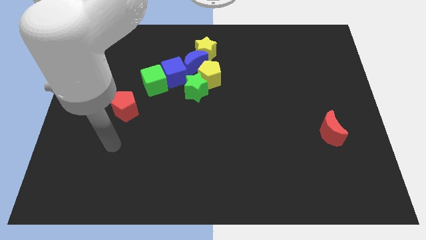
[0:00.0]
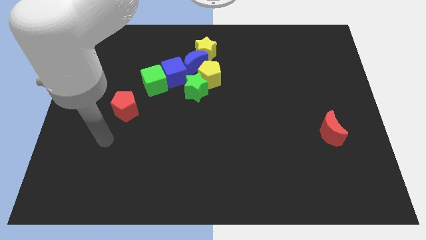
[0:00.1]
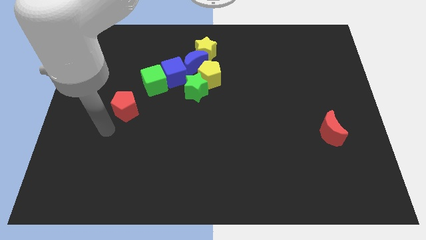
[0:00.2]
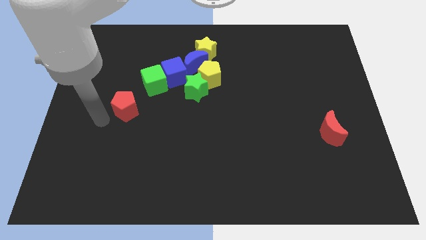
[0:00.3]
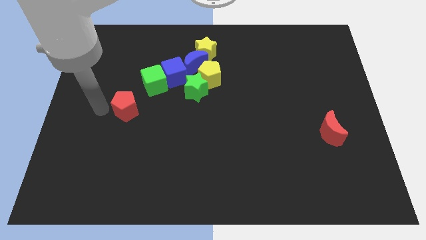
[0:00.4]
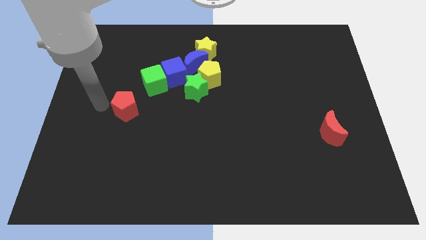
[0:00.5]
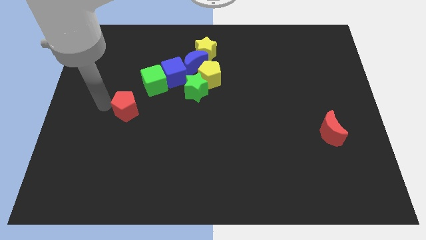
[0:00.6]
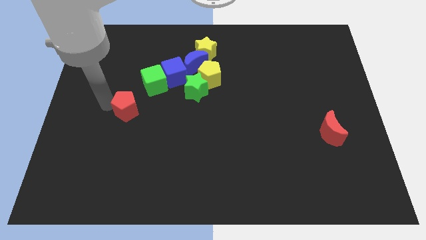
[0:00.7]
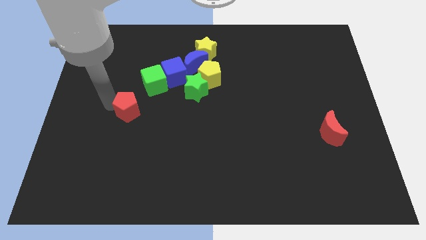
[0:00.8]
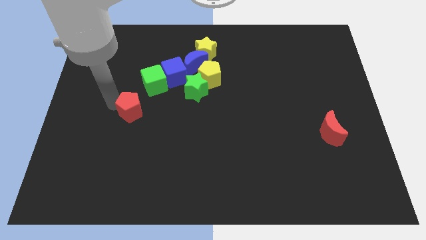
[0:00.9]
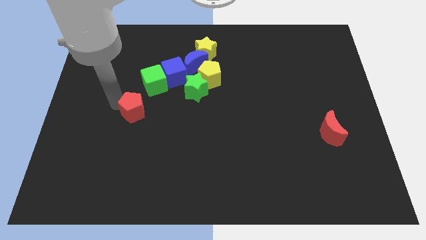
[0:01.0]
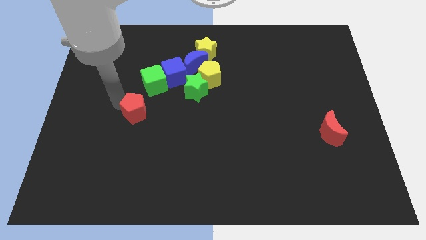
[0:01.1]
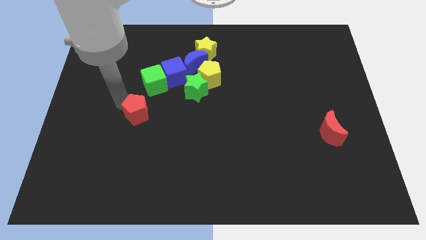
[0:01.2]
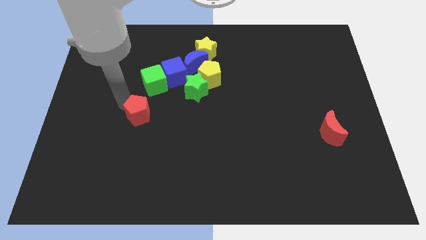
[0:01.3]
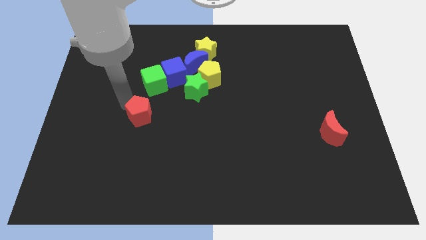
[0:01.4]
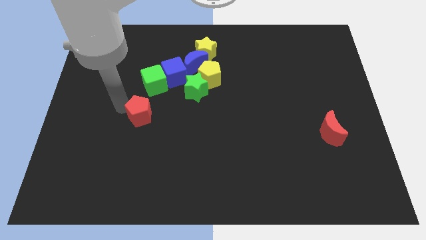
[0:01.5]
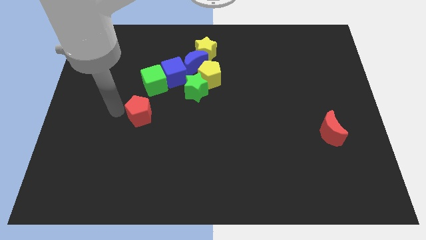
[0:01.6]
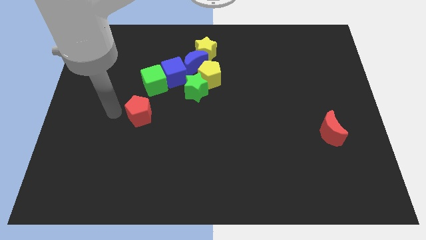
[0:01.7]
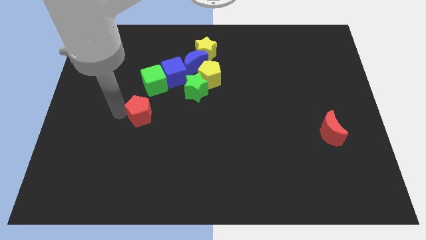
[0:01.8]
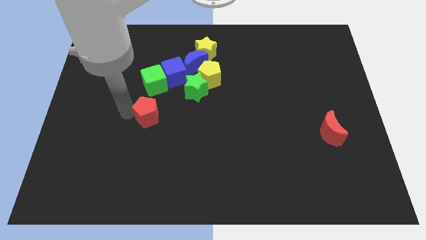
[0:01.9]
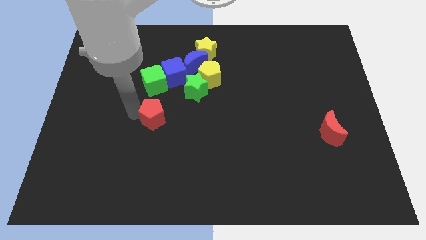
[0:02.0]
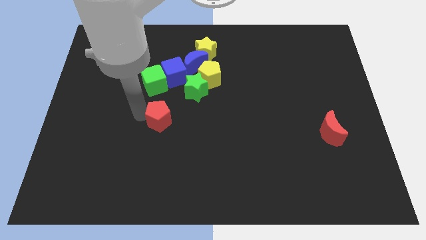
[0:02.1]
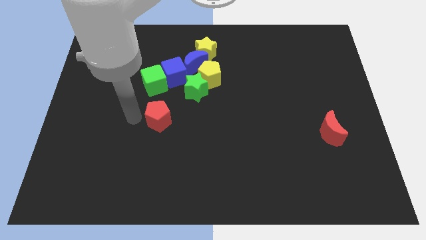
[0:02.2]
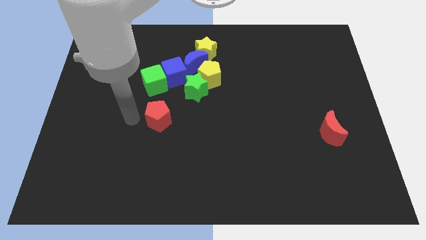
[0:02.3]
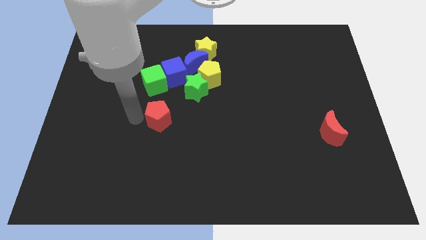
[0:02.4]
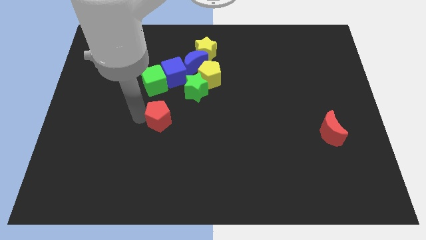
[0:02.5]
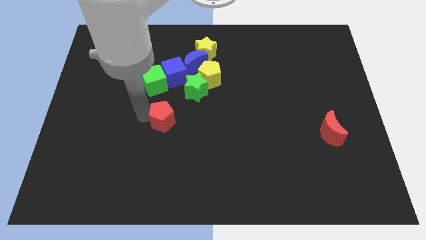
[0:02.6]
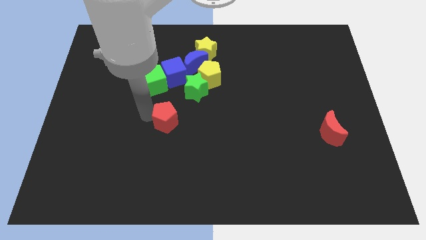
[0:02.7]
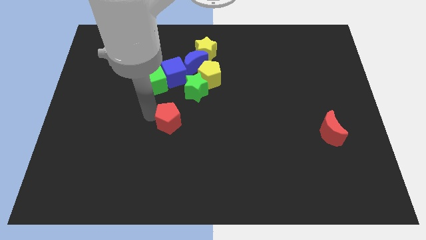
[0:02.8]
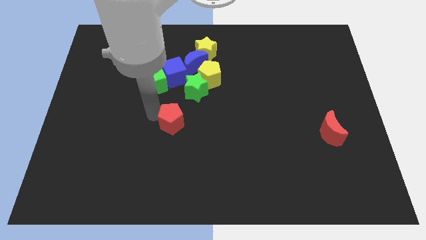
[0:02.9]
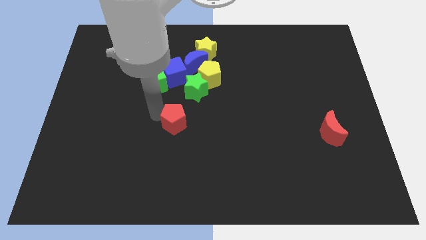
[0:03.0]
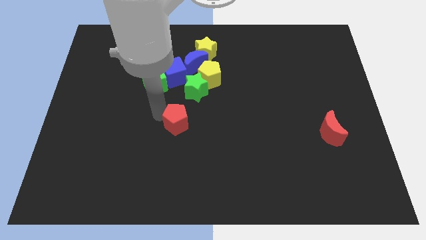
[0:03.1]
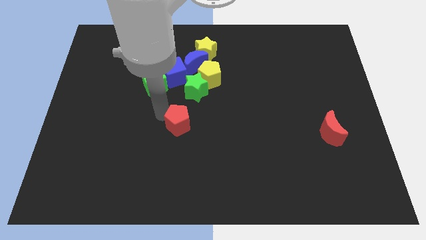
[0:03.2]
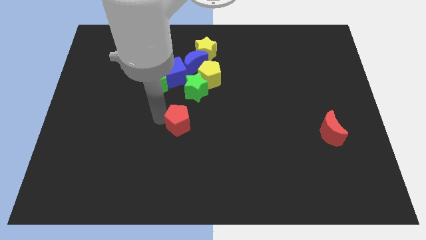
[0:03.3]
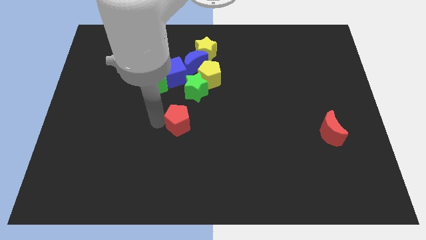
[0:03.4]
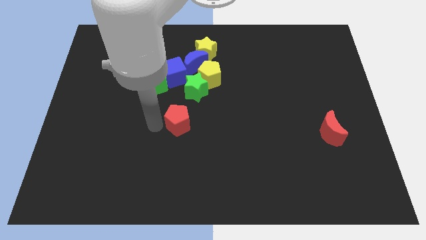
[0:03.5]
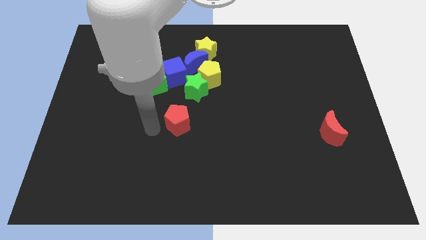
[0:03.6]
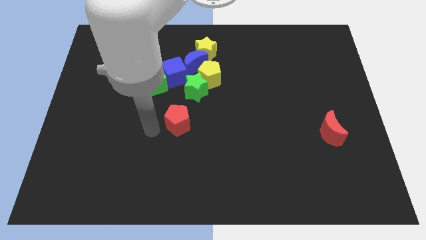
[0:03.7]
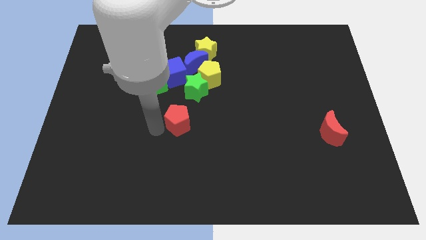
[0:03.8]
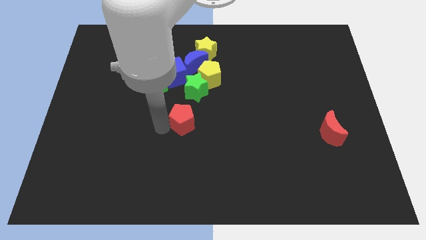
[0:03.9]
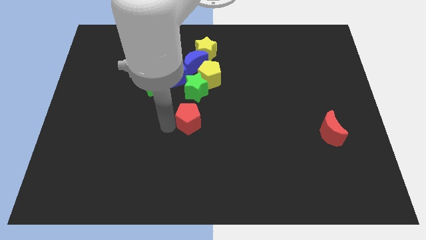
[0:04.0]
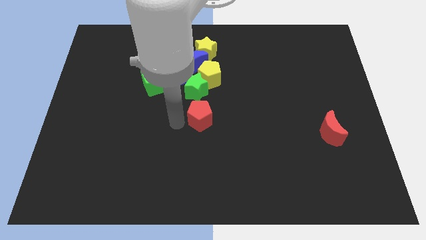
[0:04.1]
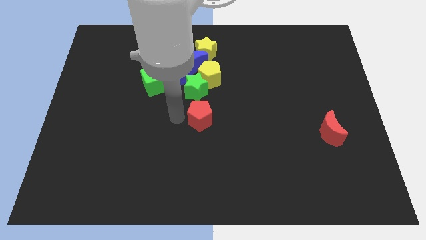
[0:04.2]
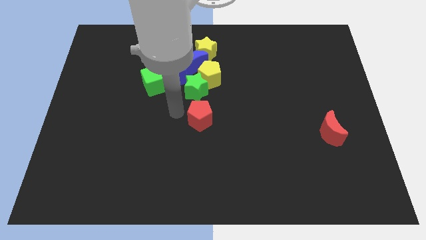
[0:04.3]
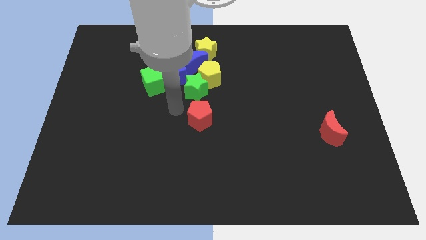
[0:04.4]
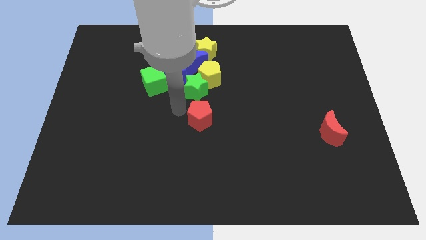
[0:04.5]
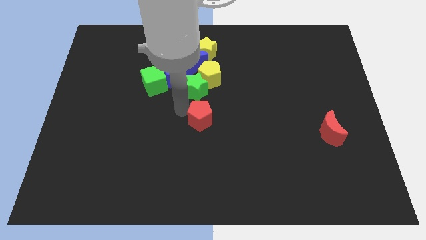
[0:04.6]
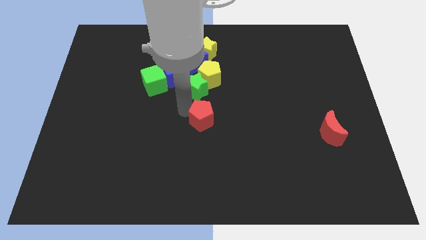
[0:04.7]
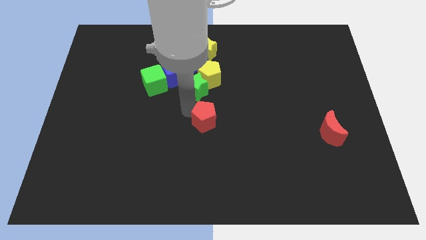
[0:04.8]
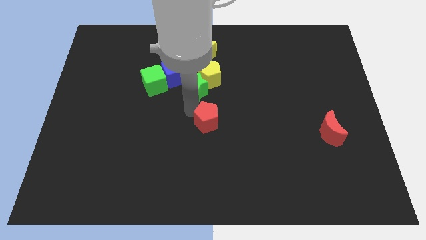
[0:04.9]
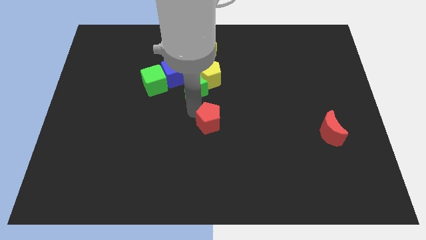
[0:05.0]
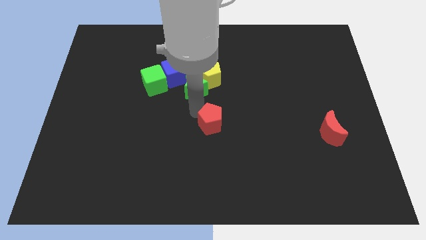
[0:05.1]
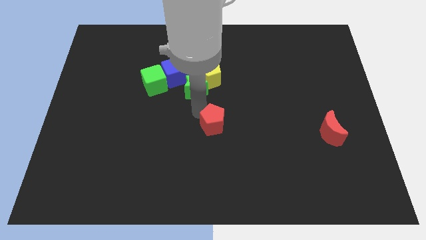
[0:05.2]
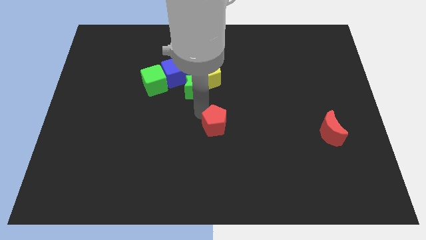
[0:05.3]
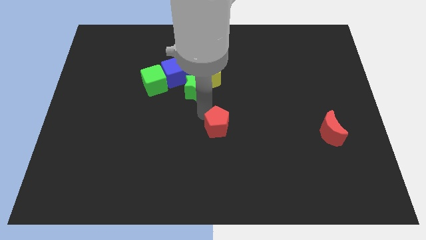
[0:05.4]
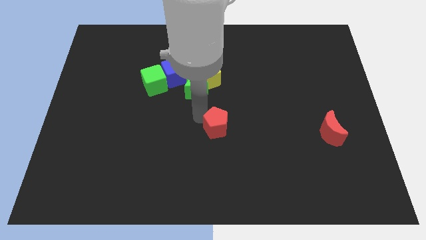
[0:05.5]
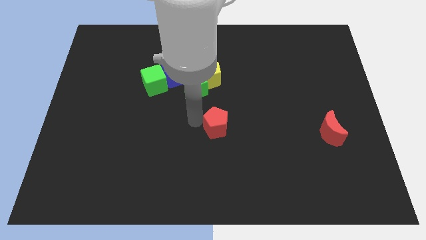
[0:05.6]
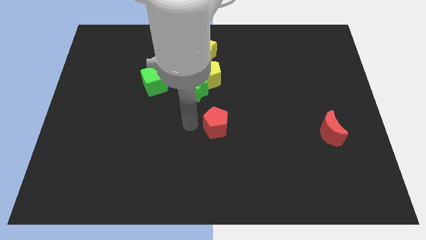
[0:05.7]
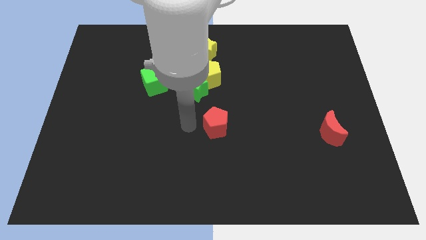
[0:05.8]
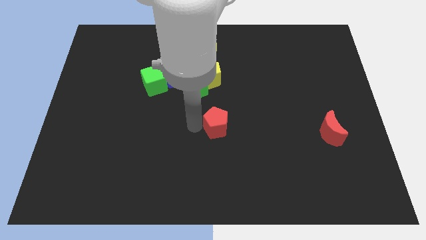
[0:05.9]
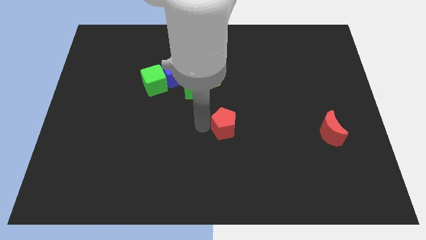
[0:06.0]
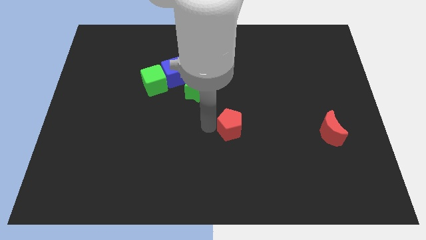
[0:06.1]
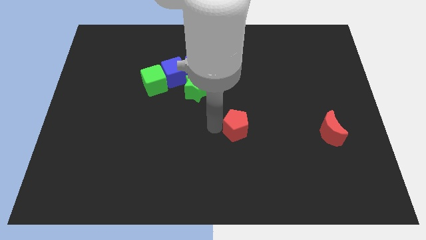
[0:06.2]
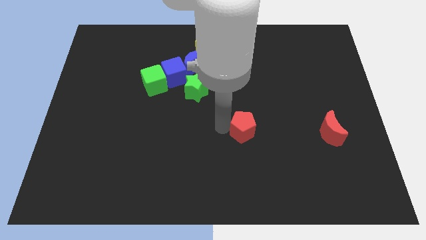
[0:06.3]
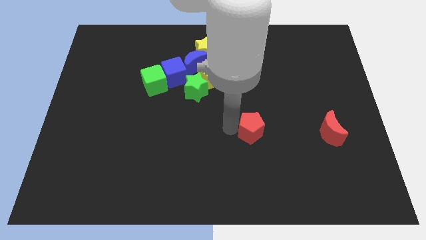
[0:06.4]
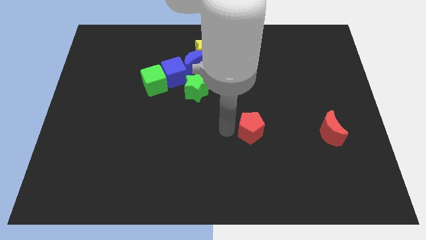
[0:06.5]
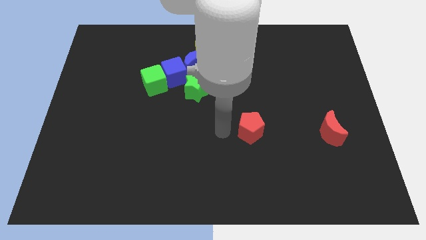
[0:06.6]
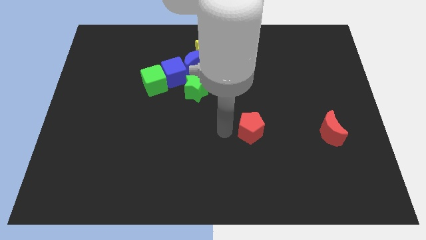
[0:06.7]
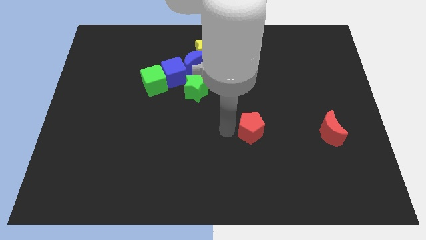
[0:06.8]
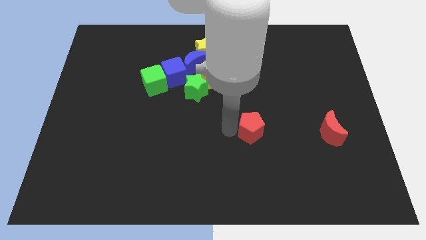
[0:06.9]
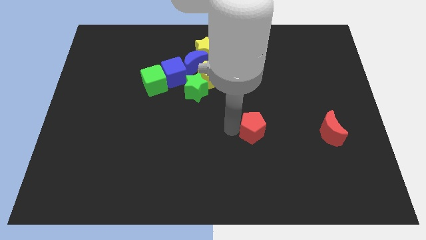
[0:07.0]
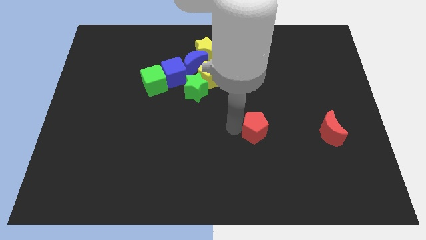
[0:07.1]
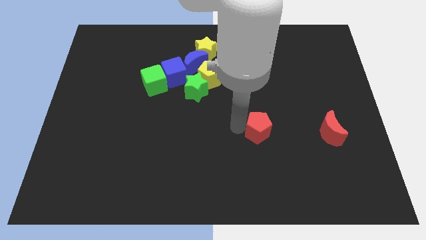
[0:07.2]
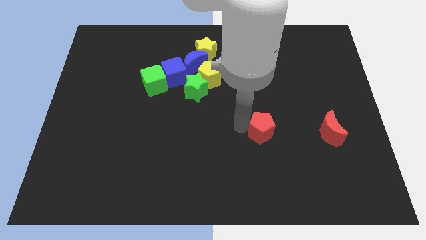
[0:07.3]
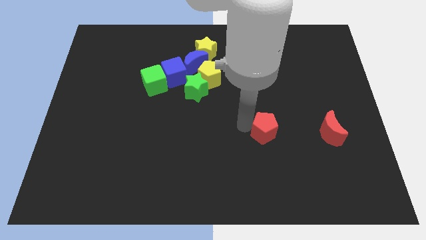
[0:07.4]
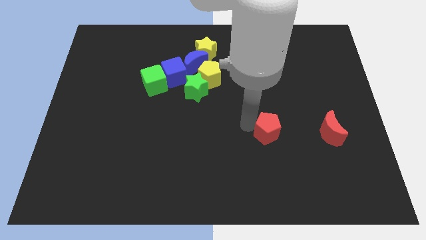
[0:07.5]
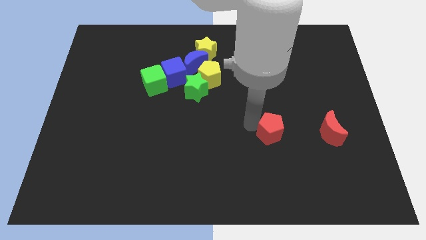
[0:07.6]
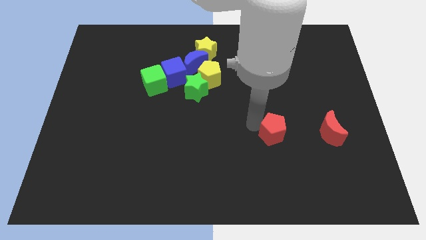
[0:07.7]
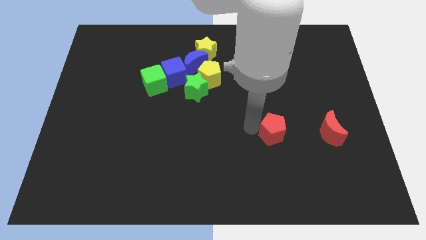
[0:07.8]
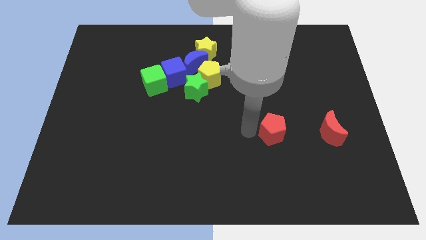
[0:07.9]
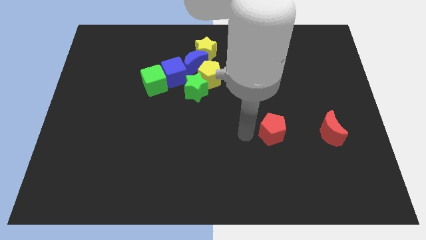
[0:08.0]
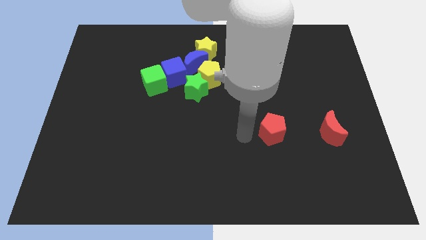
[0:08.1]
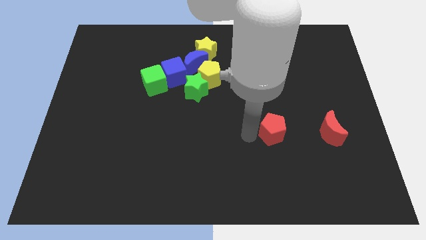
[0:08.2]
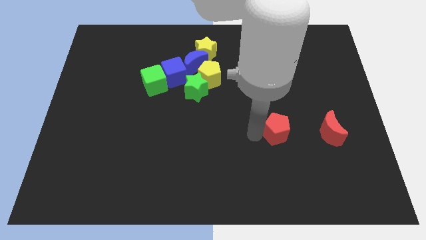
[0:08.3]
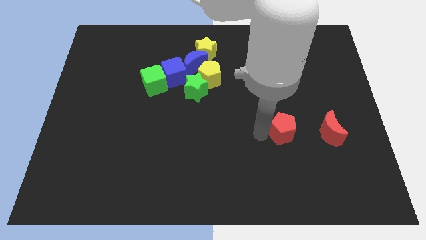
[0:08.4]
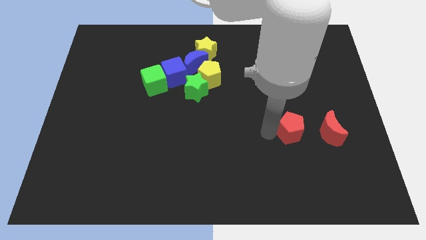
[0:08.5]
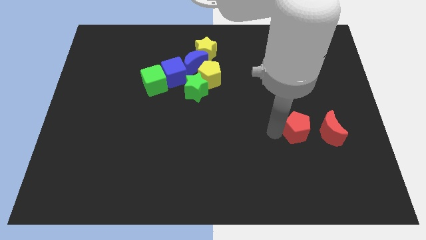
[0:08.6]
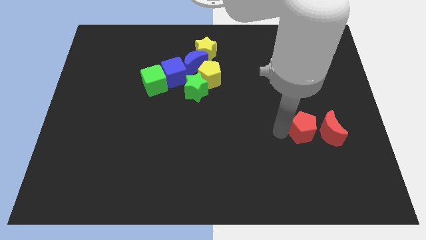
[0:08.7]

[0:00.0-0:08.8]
put the red pentagon to the red moon
